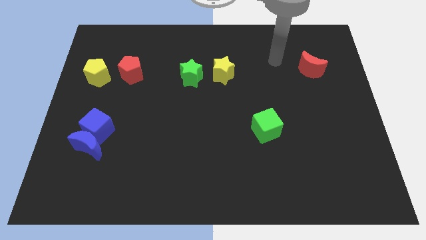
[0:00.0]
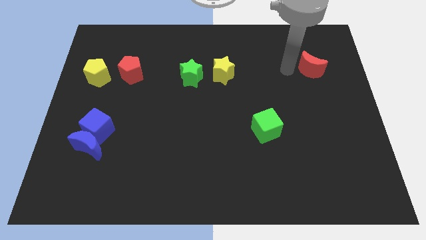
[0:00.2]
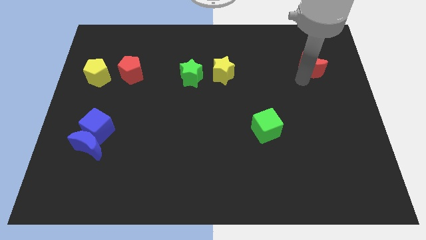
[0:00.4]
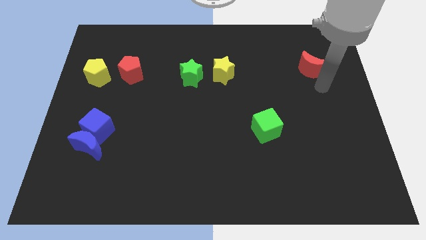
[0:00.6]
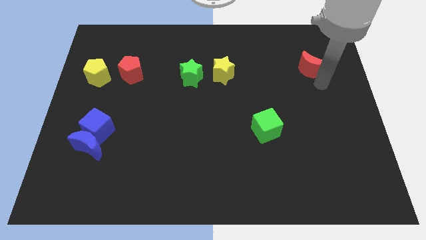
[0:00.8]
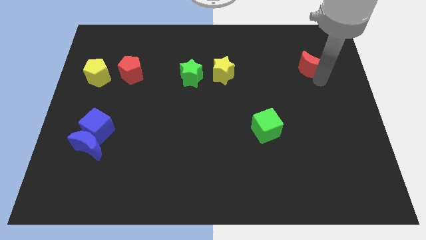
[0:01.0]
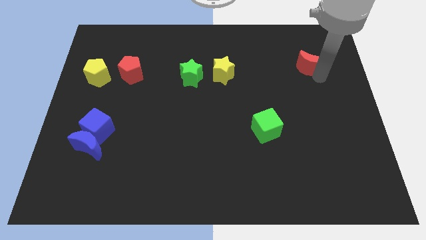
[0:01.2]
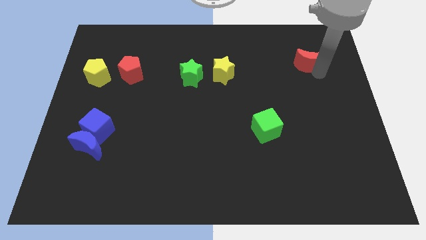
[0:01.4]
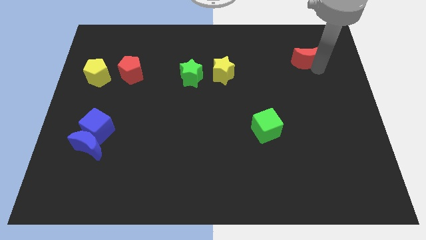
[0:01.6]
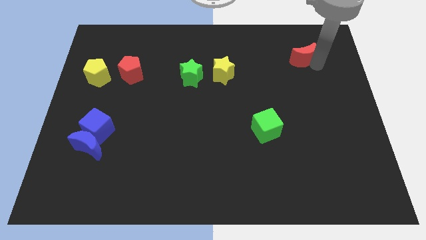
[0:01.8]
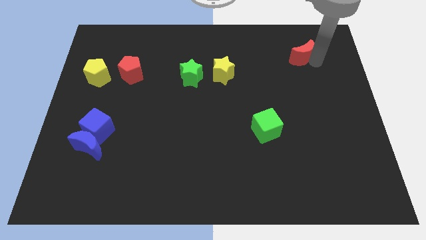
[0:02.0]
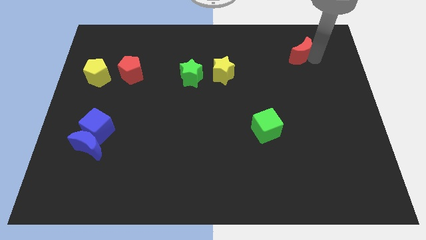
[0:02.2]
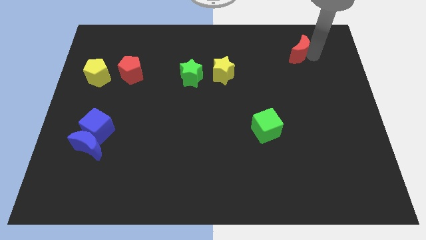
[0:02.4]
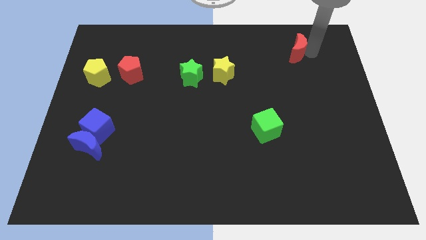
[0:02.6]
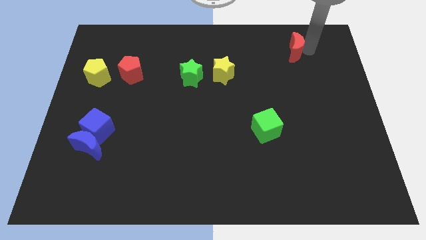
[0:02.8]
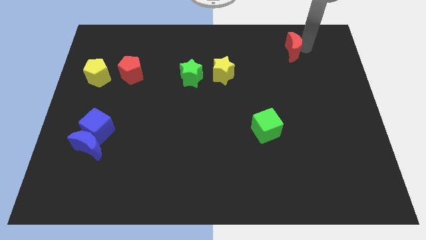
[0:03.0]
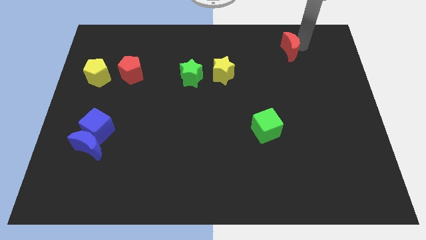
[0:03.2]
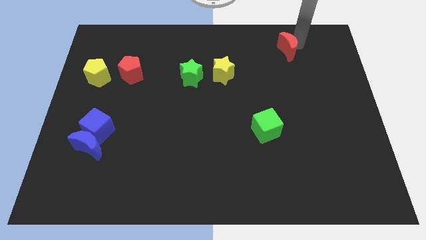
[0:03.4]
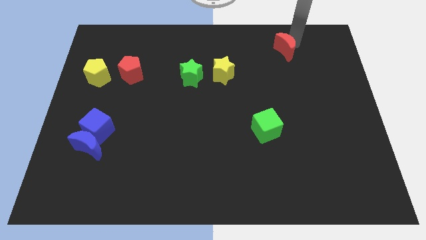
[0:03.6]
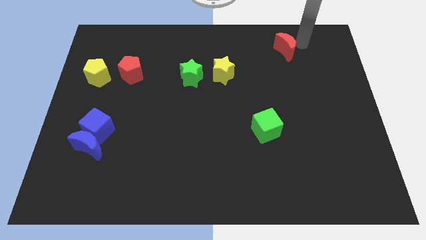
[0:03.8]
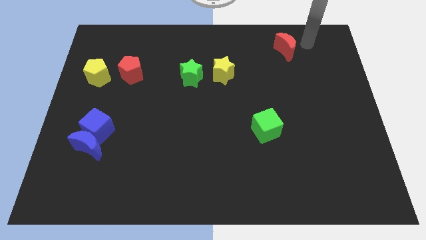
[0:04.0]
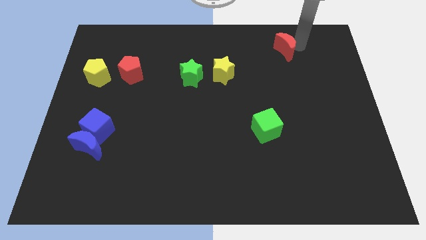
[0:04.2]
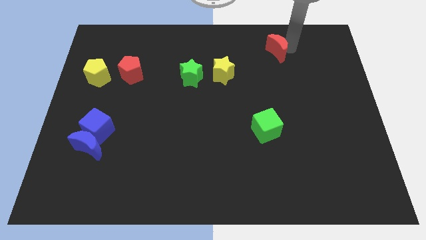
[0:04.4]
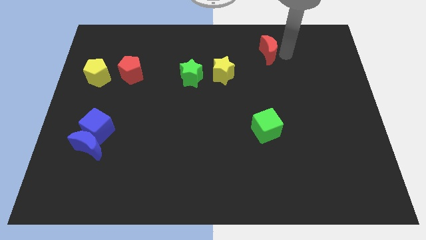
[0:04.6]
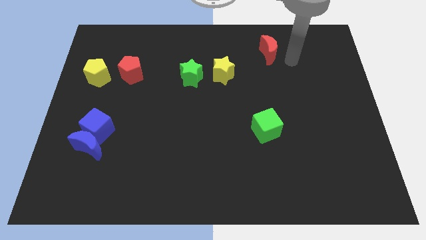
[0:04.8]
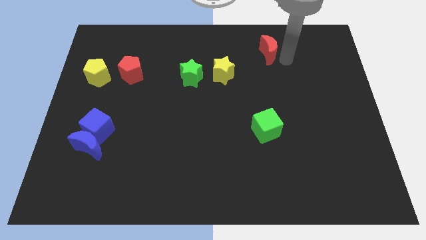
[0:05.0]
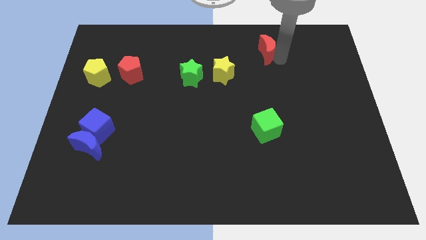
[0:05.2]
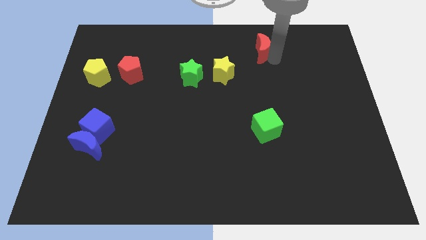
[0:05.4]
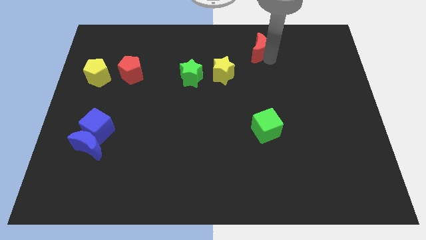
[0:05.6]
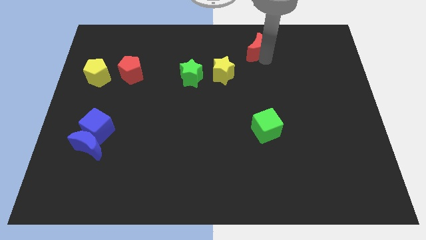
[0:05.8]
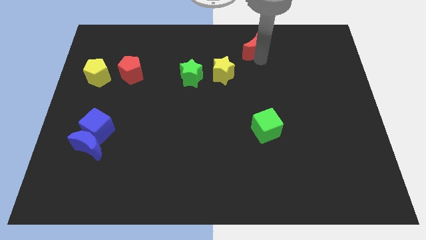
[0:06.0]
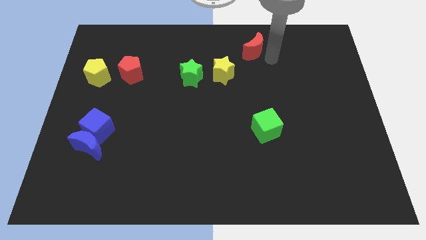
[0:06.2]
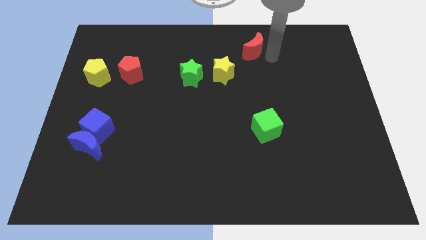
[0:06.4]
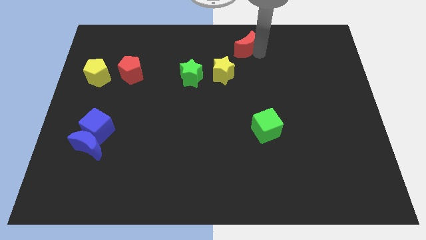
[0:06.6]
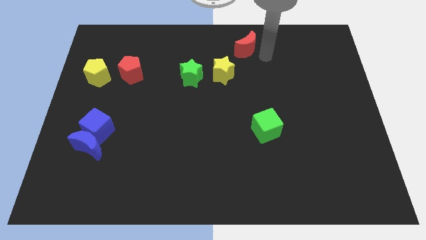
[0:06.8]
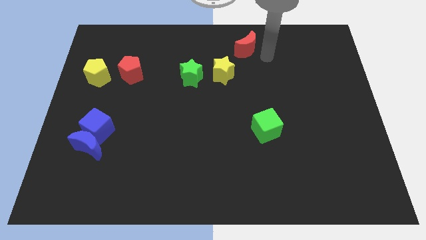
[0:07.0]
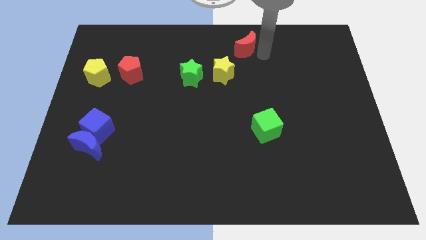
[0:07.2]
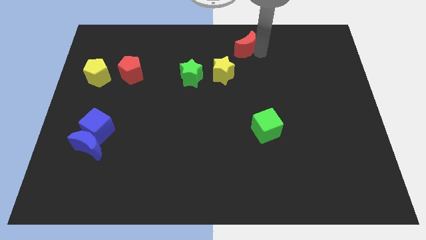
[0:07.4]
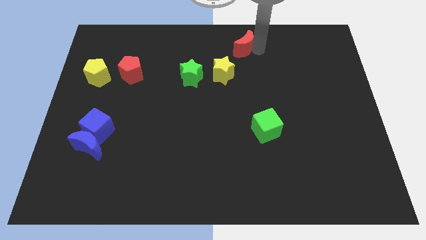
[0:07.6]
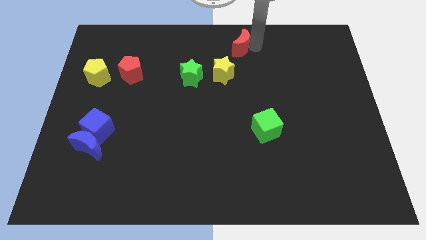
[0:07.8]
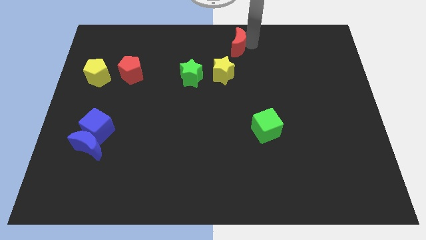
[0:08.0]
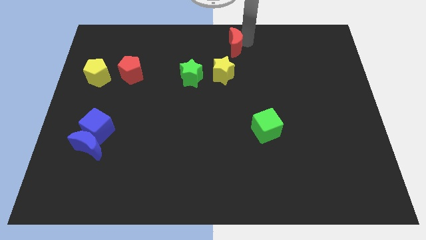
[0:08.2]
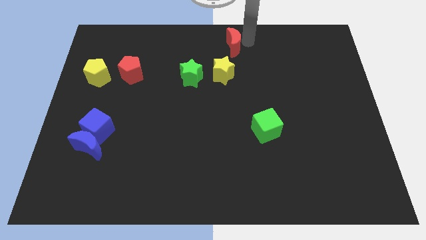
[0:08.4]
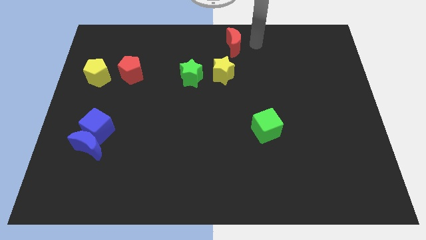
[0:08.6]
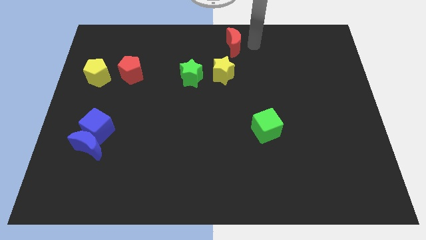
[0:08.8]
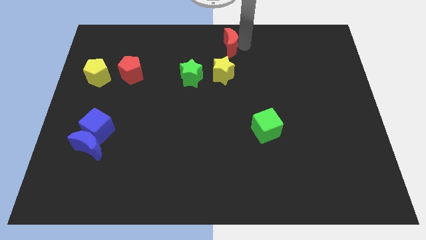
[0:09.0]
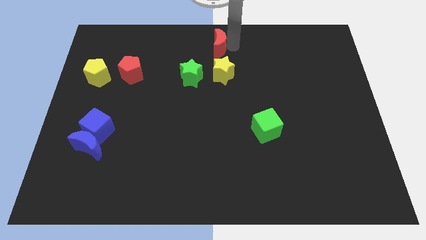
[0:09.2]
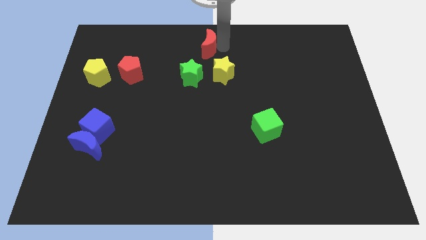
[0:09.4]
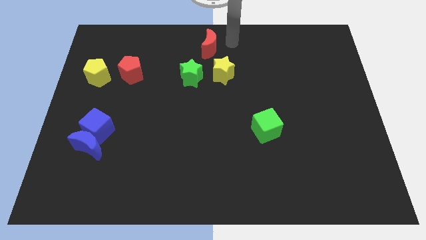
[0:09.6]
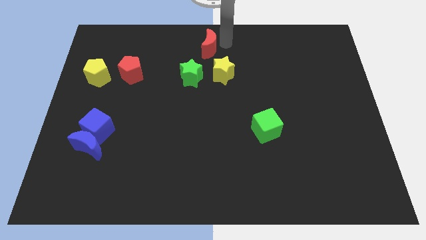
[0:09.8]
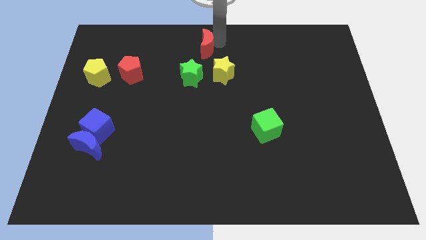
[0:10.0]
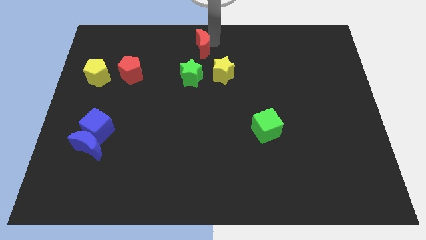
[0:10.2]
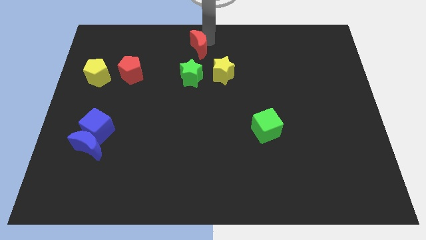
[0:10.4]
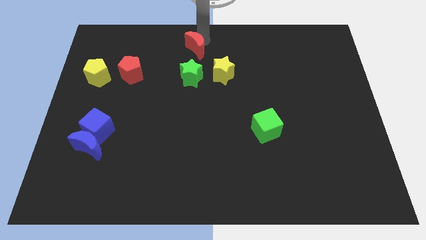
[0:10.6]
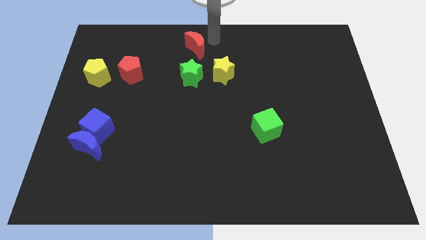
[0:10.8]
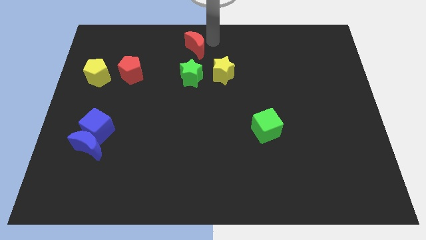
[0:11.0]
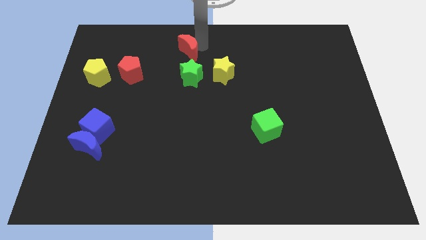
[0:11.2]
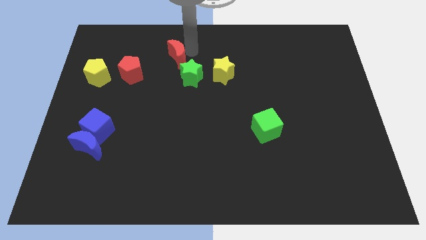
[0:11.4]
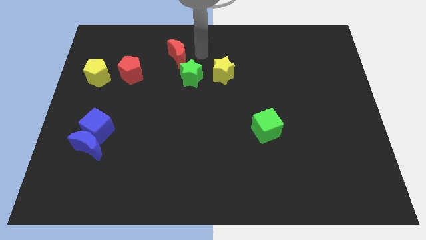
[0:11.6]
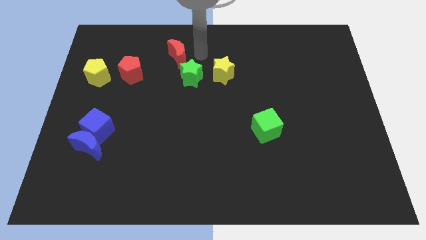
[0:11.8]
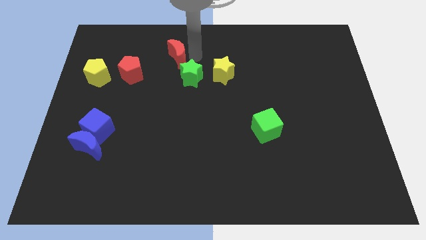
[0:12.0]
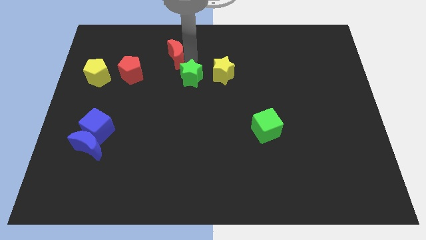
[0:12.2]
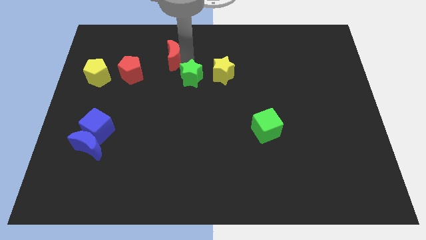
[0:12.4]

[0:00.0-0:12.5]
move the red moon to the top right of the red pentagon

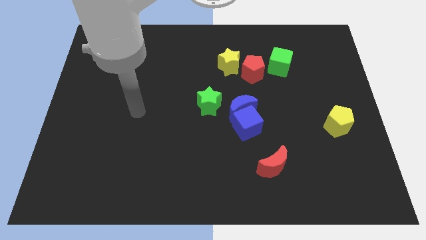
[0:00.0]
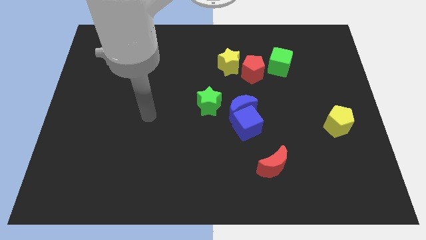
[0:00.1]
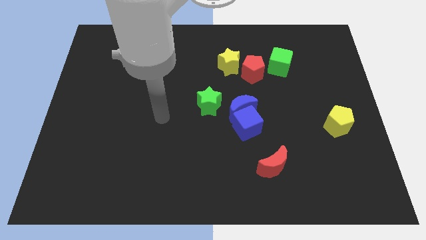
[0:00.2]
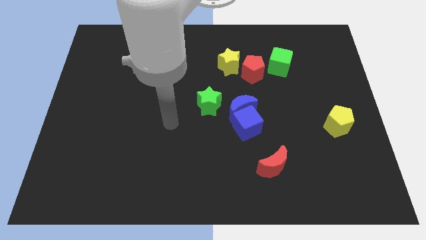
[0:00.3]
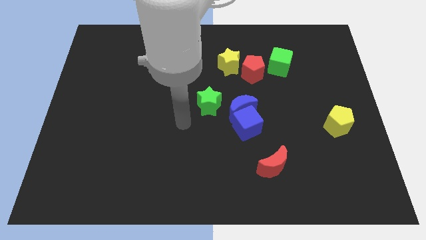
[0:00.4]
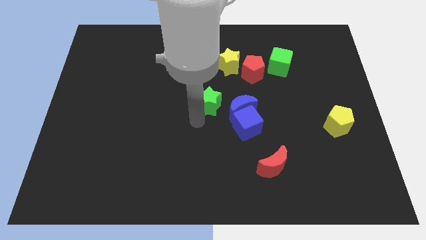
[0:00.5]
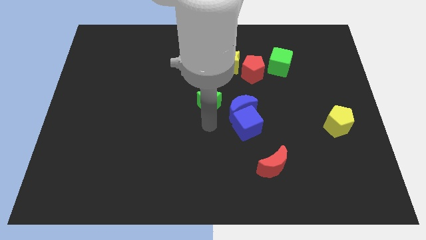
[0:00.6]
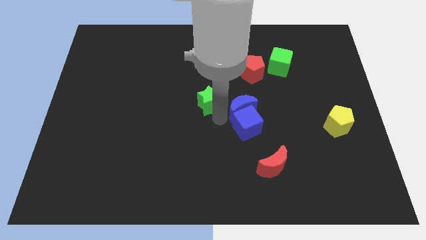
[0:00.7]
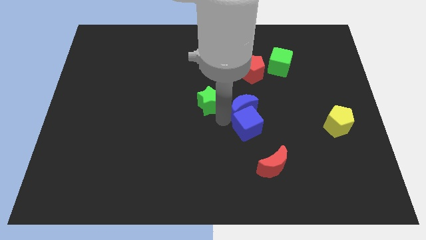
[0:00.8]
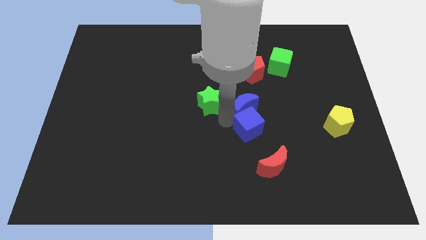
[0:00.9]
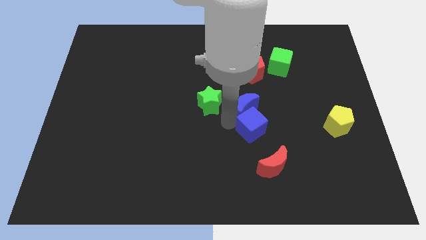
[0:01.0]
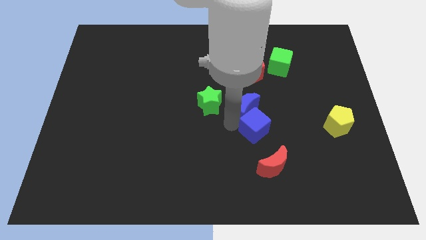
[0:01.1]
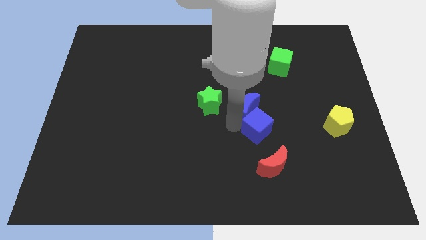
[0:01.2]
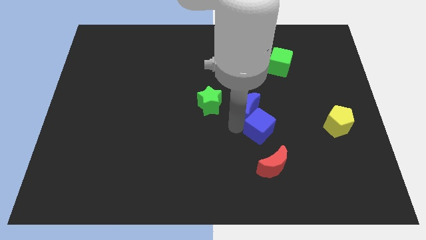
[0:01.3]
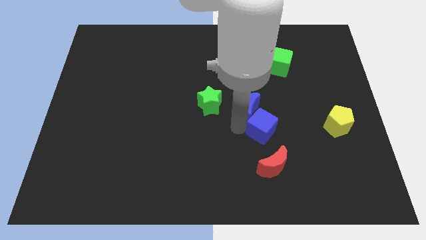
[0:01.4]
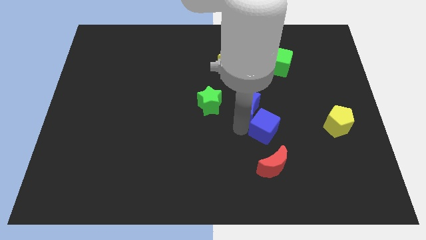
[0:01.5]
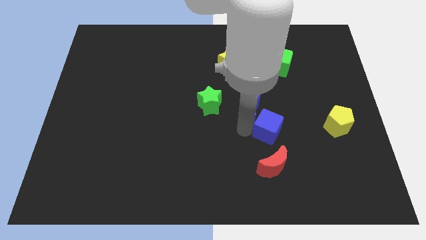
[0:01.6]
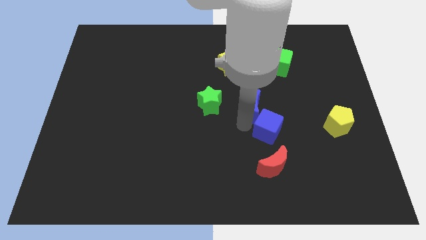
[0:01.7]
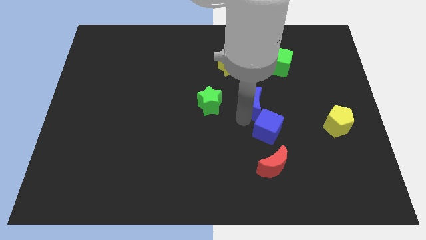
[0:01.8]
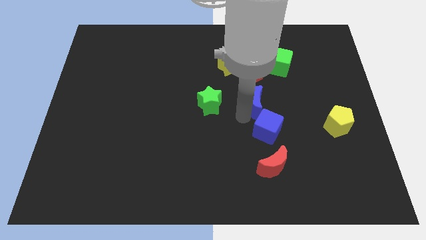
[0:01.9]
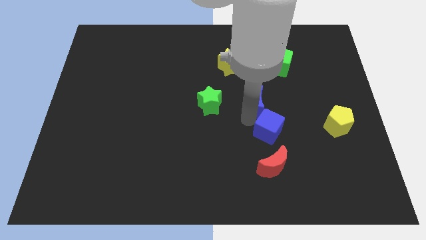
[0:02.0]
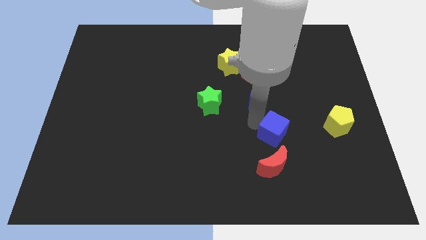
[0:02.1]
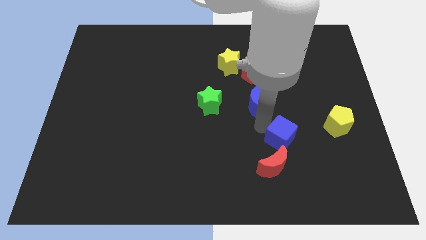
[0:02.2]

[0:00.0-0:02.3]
put the blue cube to the top right of the red moon
